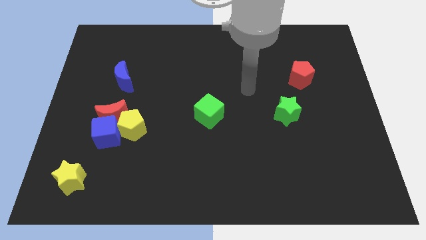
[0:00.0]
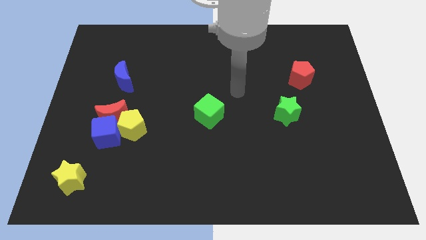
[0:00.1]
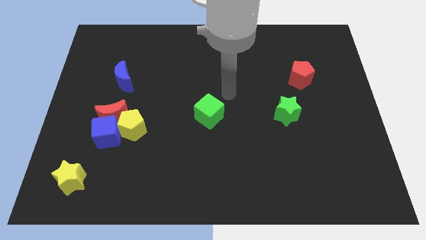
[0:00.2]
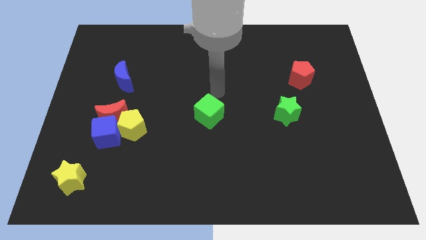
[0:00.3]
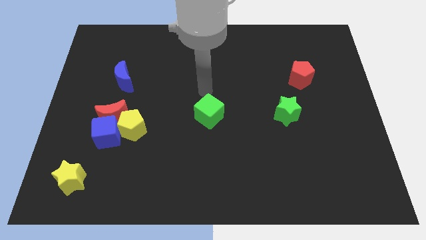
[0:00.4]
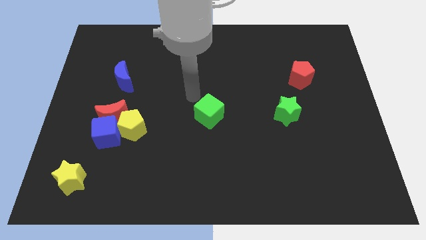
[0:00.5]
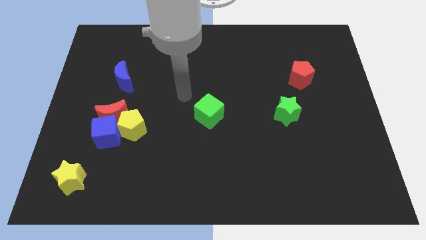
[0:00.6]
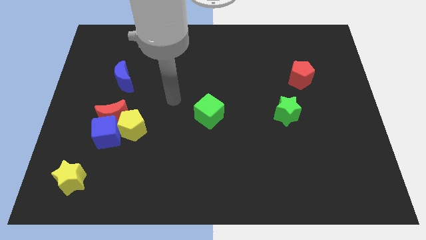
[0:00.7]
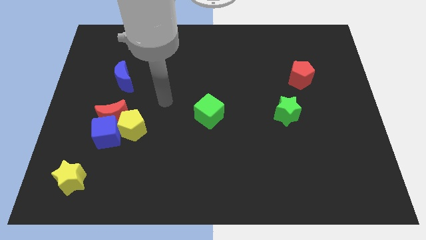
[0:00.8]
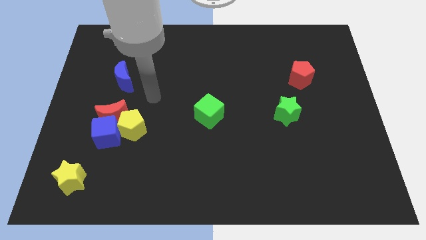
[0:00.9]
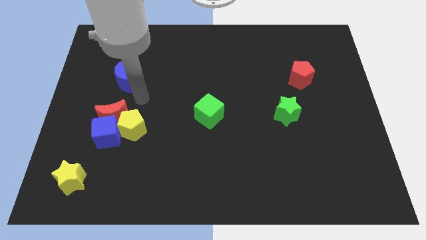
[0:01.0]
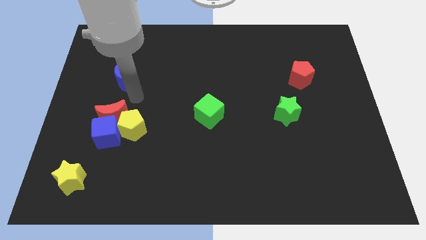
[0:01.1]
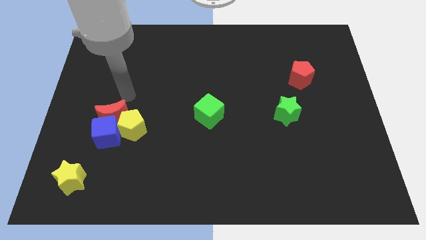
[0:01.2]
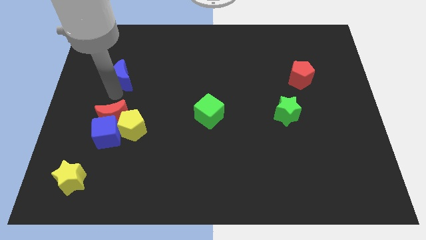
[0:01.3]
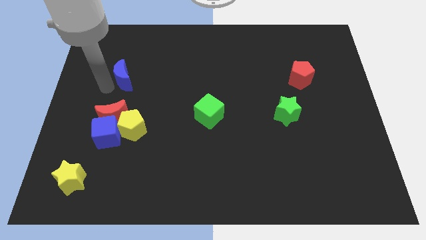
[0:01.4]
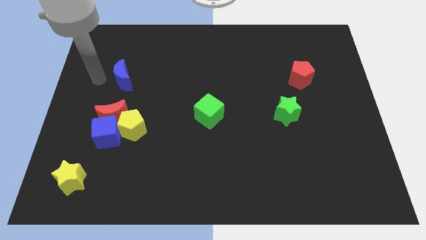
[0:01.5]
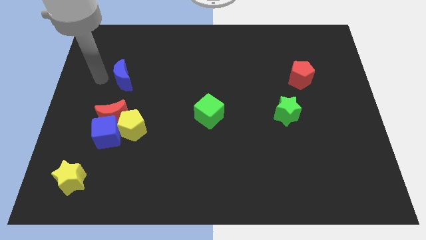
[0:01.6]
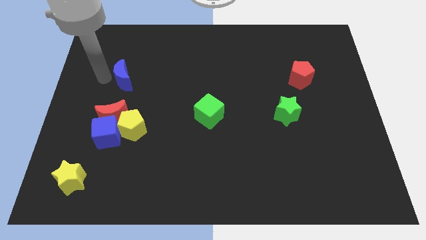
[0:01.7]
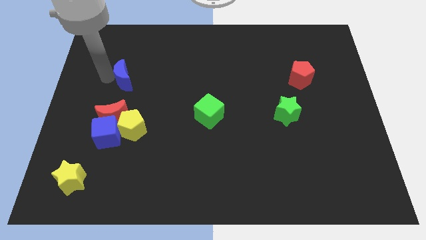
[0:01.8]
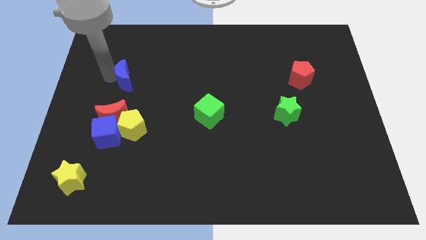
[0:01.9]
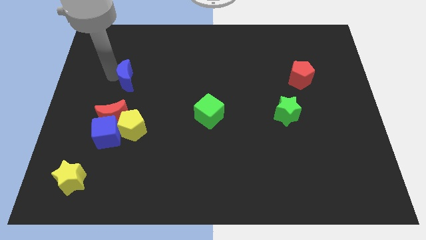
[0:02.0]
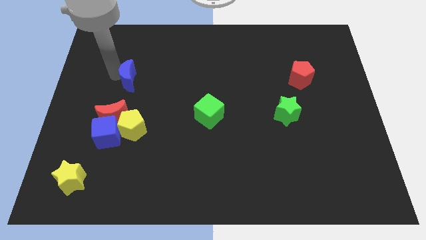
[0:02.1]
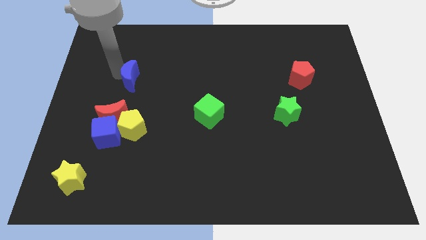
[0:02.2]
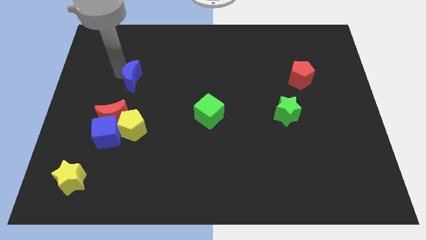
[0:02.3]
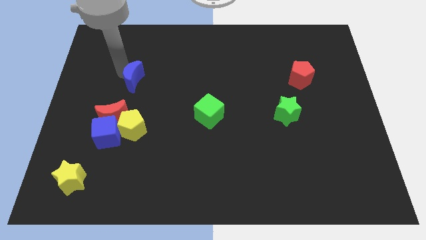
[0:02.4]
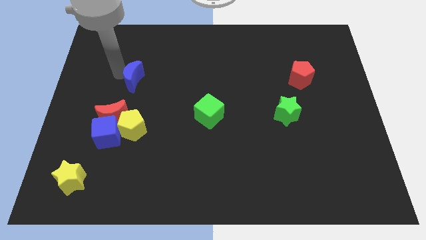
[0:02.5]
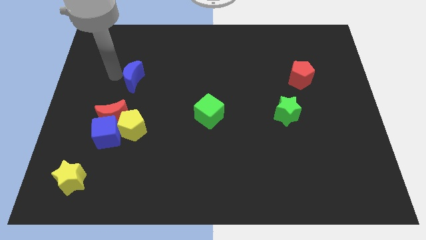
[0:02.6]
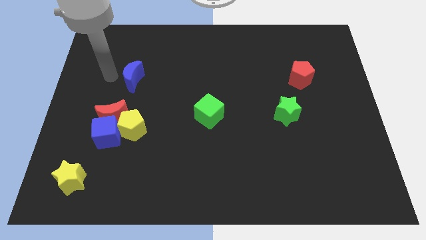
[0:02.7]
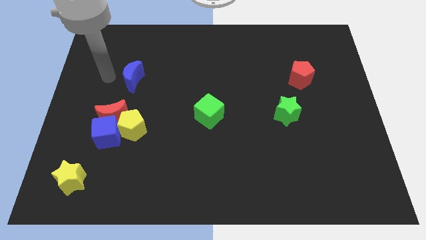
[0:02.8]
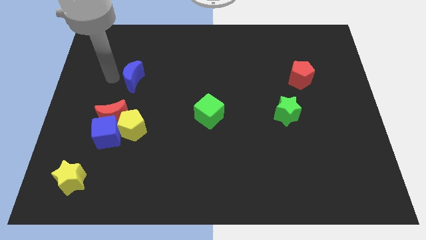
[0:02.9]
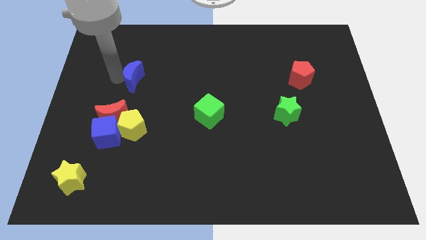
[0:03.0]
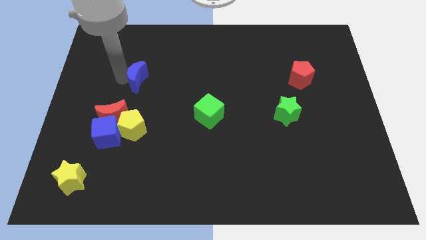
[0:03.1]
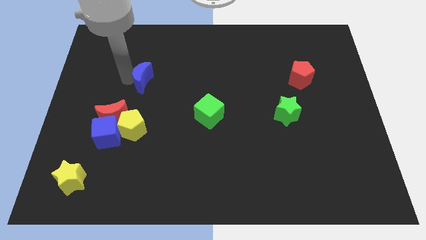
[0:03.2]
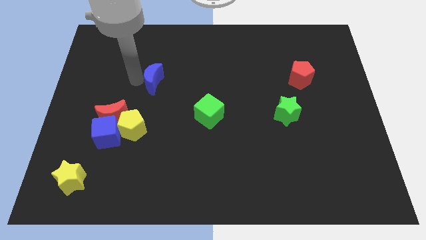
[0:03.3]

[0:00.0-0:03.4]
push the blue moon a little right

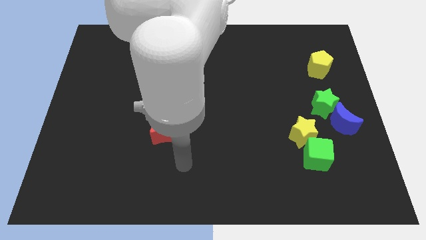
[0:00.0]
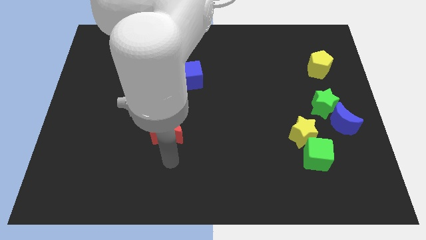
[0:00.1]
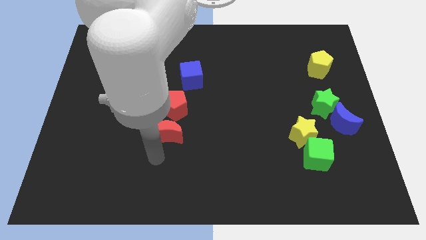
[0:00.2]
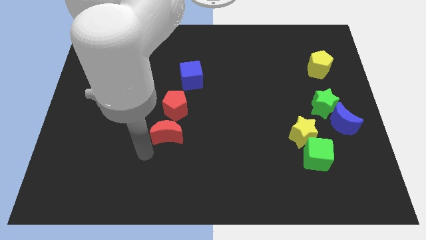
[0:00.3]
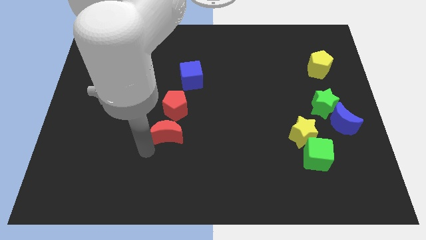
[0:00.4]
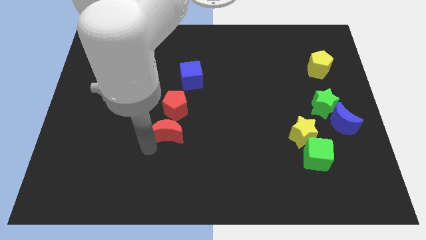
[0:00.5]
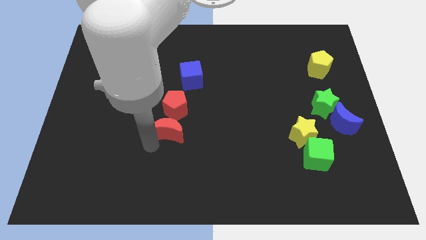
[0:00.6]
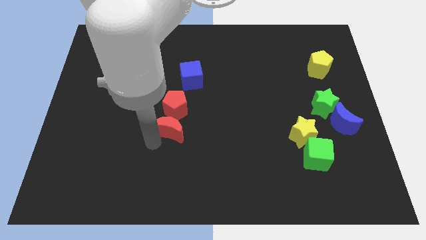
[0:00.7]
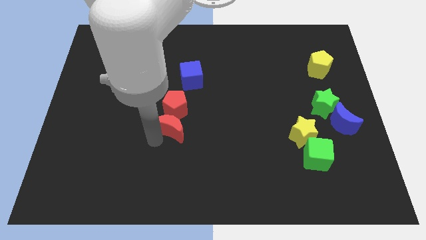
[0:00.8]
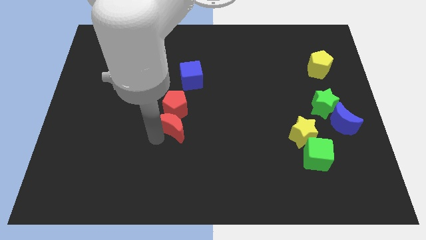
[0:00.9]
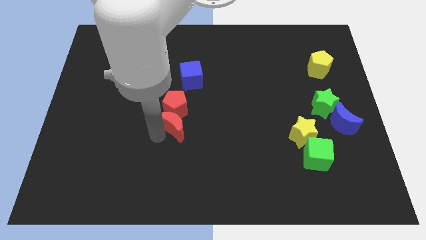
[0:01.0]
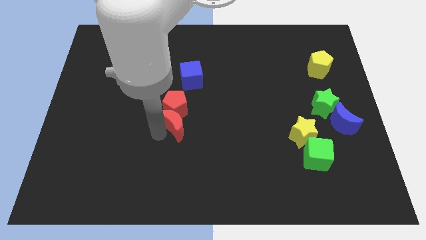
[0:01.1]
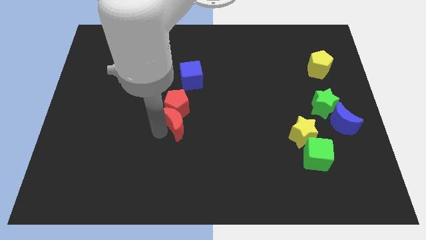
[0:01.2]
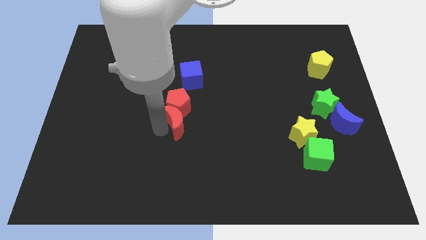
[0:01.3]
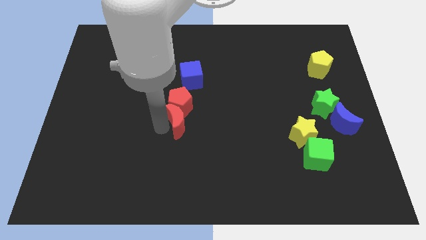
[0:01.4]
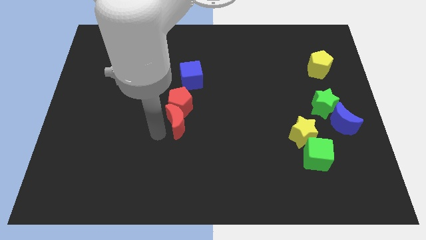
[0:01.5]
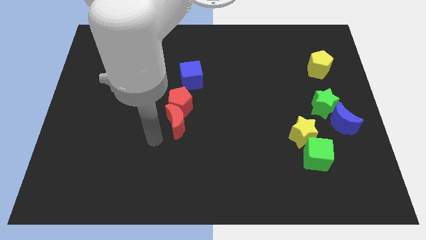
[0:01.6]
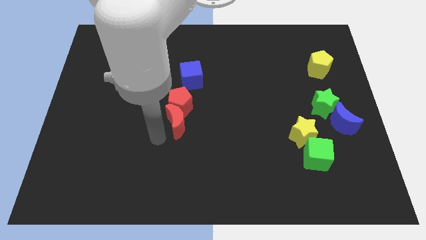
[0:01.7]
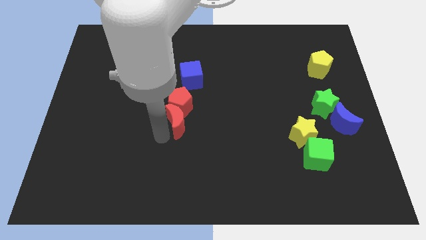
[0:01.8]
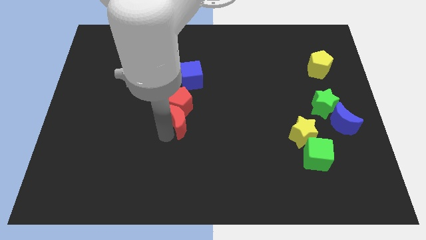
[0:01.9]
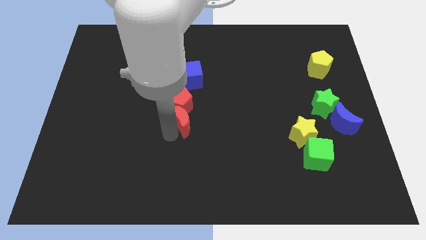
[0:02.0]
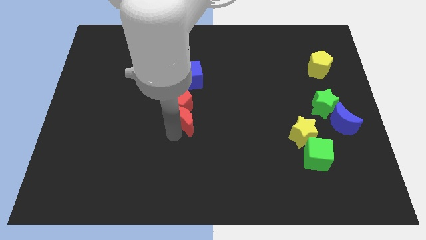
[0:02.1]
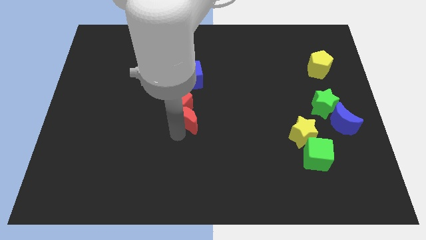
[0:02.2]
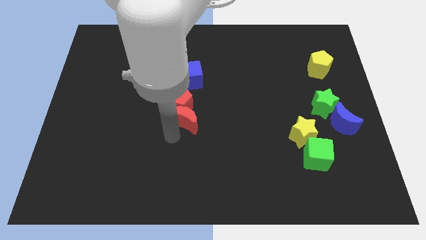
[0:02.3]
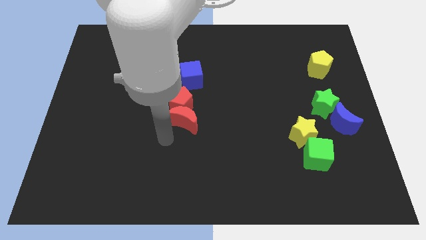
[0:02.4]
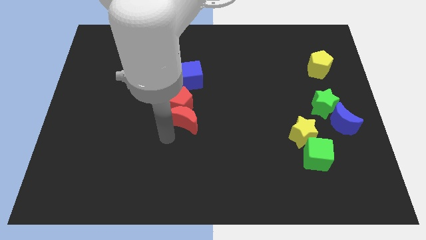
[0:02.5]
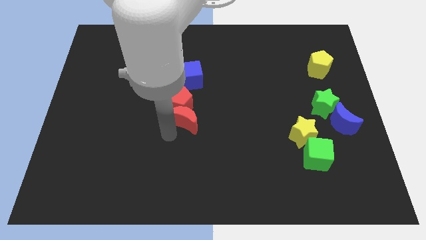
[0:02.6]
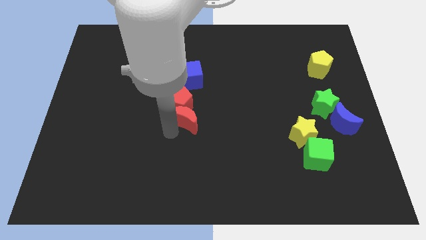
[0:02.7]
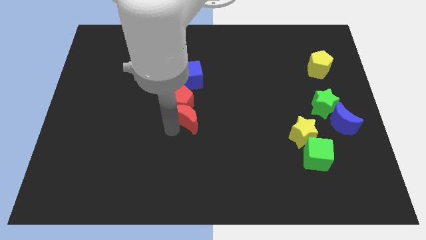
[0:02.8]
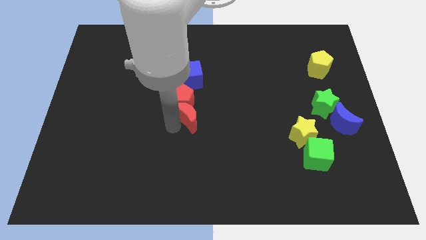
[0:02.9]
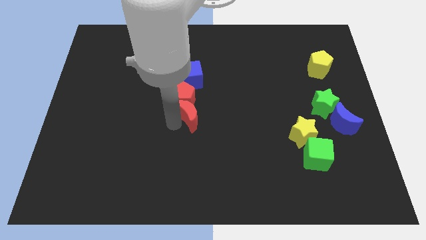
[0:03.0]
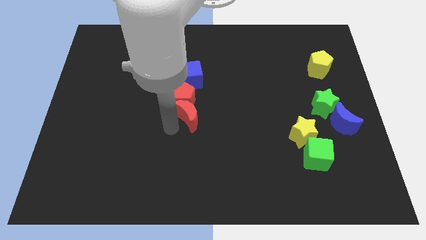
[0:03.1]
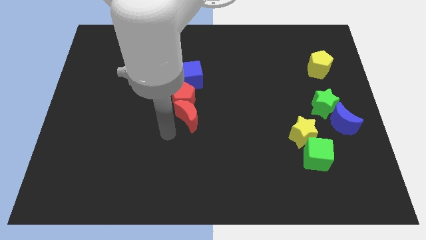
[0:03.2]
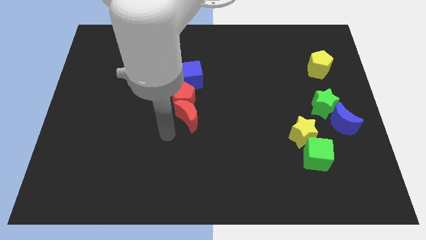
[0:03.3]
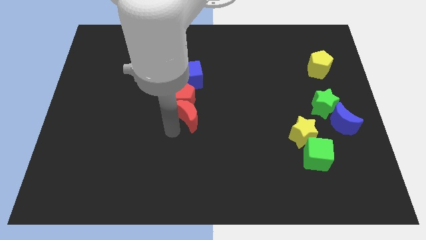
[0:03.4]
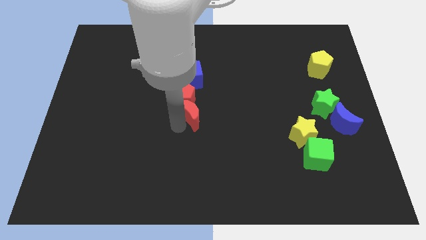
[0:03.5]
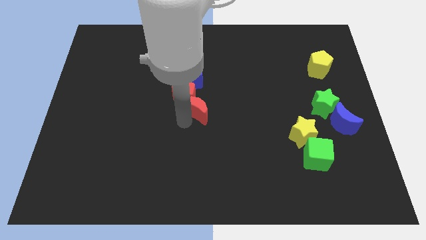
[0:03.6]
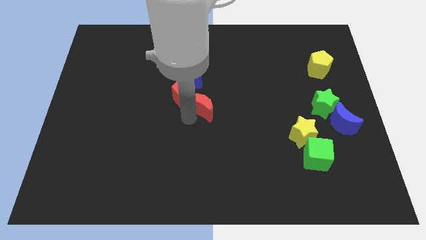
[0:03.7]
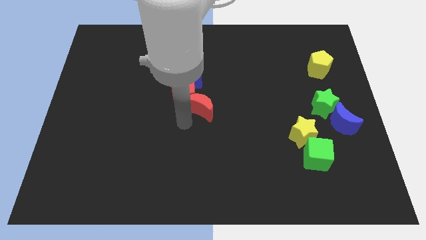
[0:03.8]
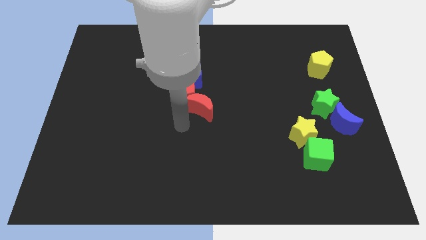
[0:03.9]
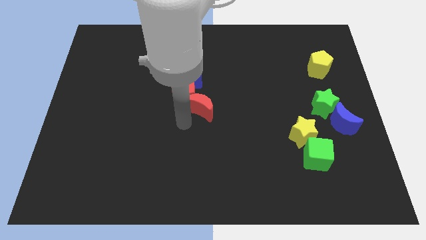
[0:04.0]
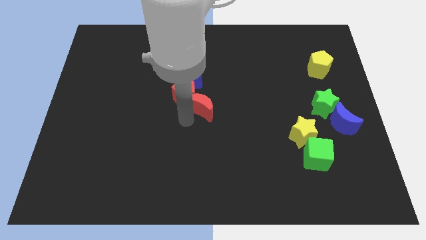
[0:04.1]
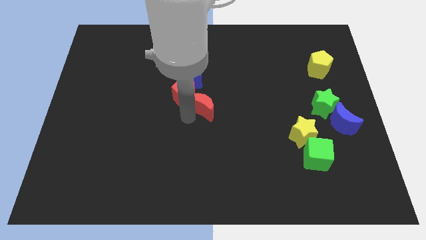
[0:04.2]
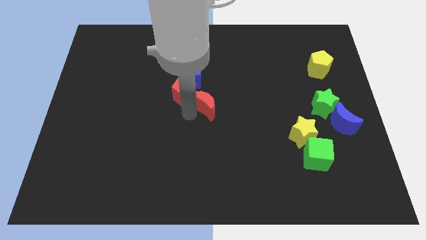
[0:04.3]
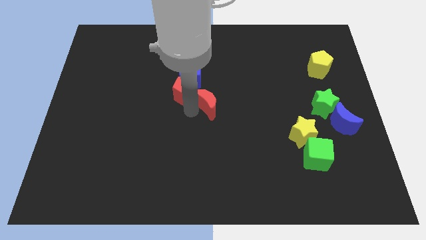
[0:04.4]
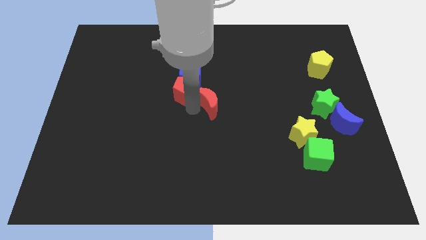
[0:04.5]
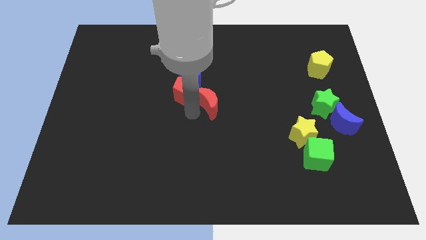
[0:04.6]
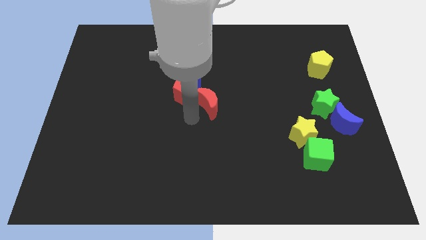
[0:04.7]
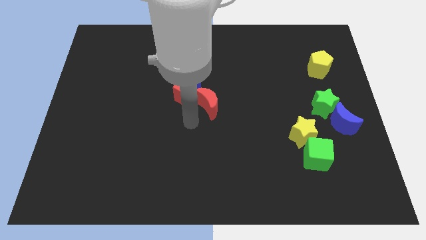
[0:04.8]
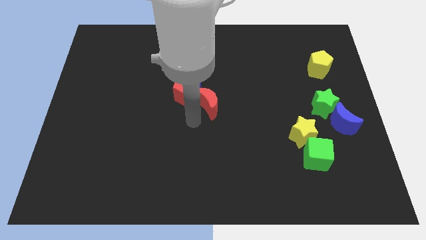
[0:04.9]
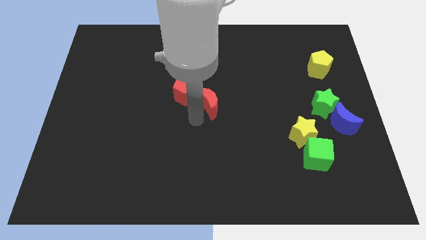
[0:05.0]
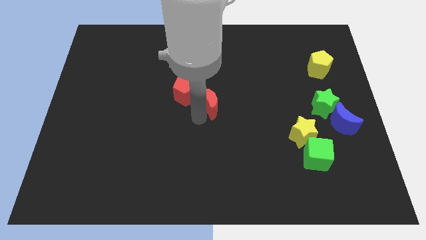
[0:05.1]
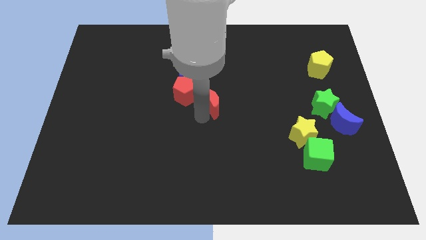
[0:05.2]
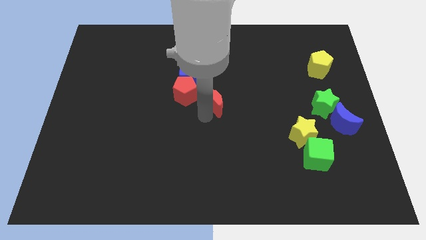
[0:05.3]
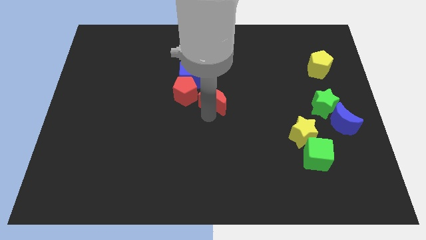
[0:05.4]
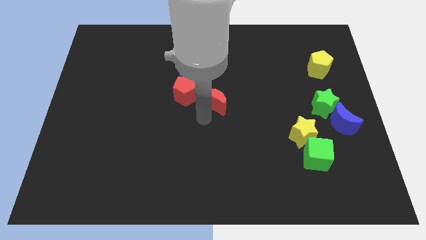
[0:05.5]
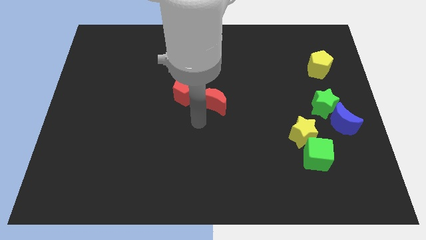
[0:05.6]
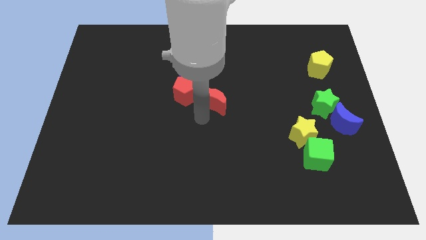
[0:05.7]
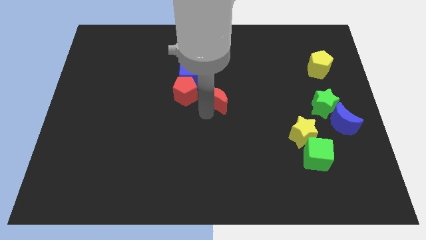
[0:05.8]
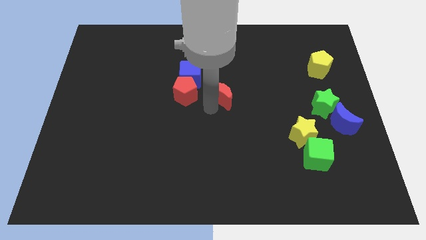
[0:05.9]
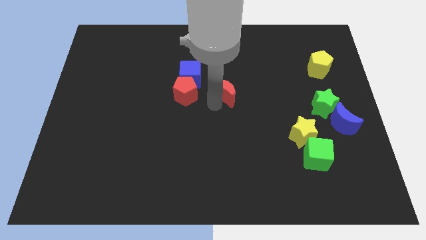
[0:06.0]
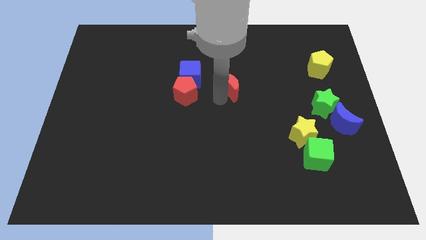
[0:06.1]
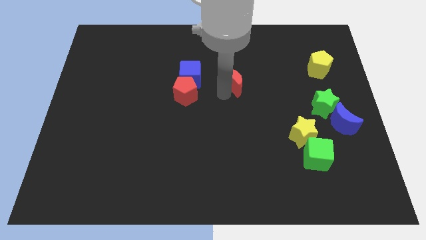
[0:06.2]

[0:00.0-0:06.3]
move the red moon up and then to the right
